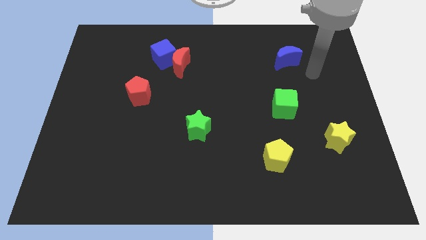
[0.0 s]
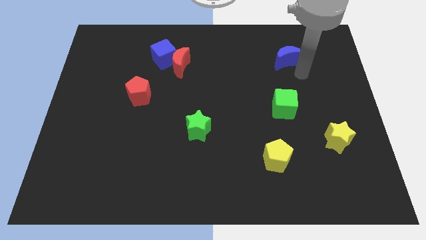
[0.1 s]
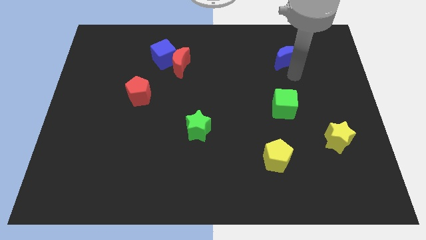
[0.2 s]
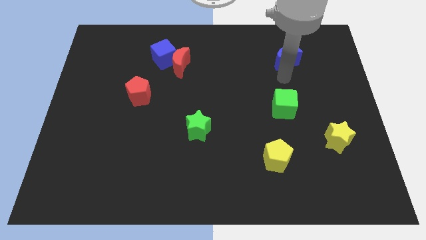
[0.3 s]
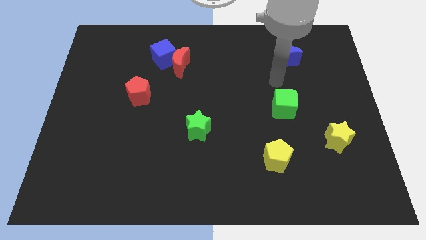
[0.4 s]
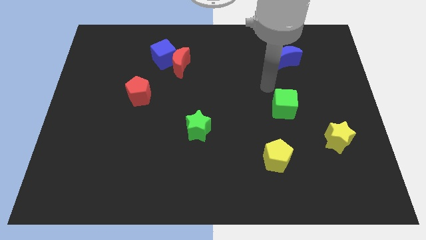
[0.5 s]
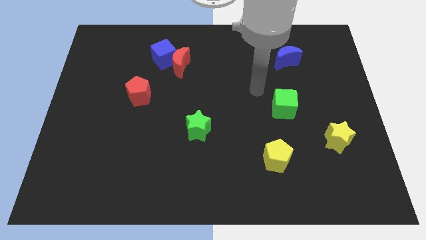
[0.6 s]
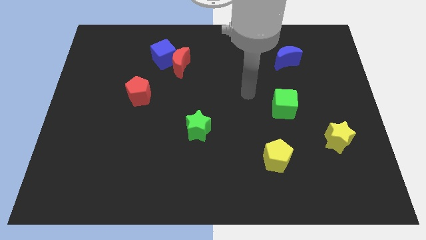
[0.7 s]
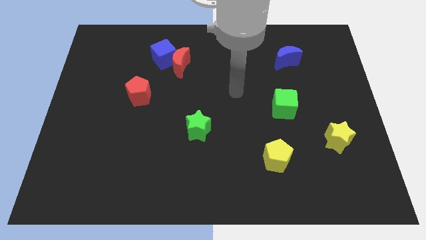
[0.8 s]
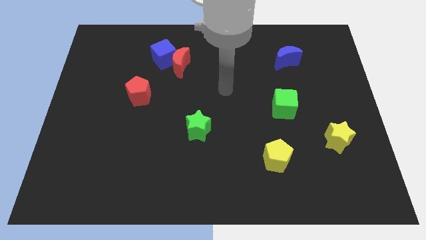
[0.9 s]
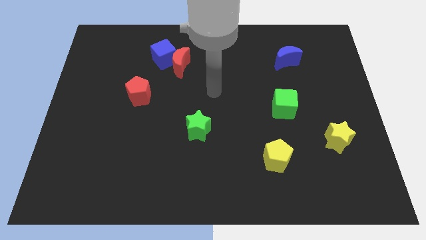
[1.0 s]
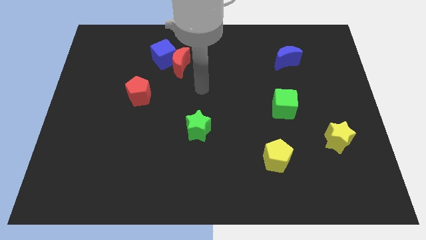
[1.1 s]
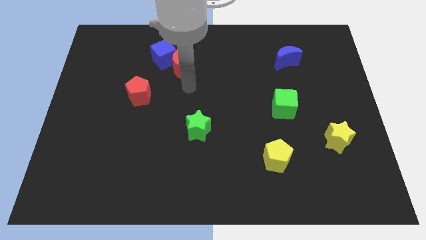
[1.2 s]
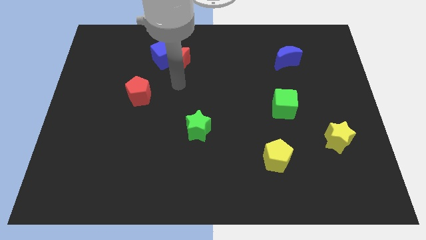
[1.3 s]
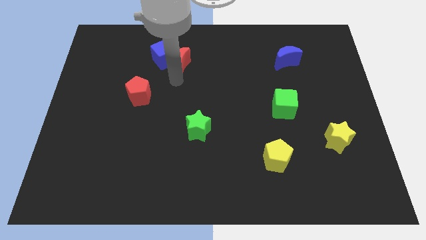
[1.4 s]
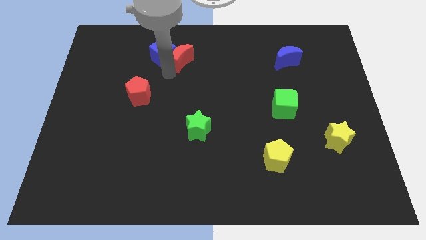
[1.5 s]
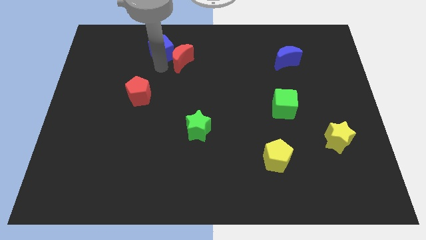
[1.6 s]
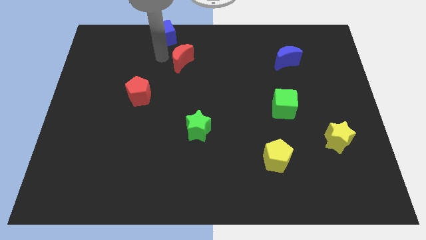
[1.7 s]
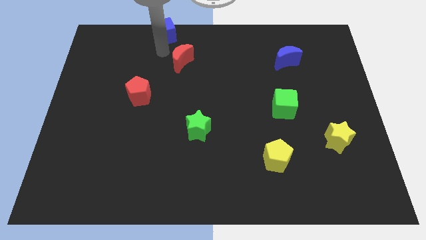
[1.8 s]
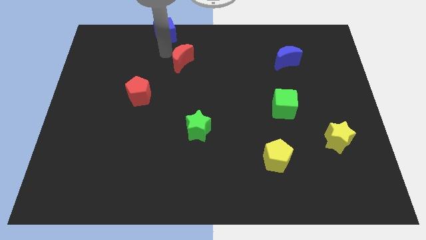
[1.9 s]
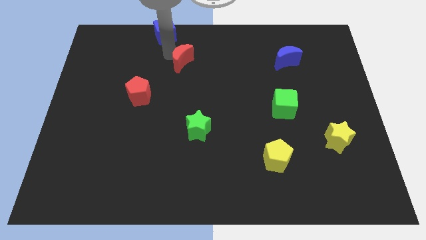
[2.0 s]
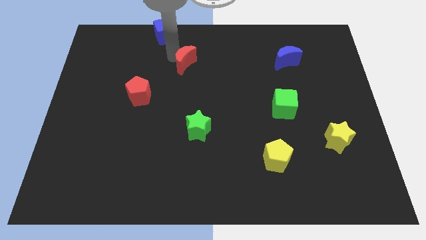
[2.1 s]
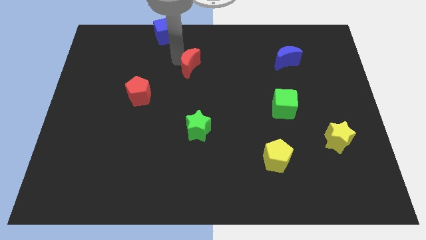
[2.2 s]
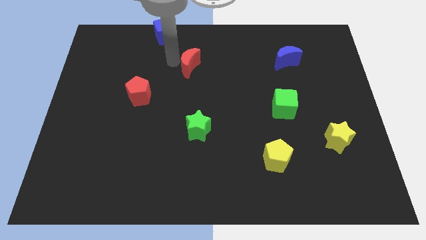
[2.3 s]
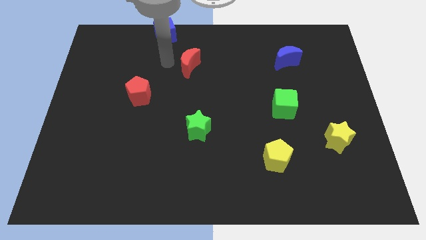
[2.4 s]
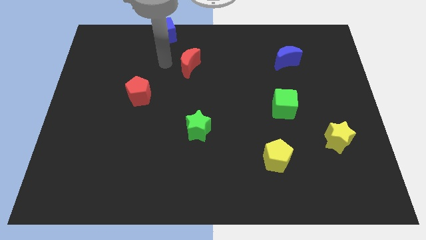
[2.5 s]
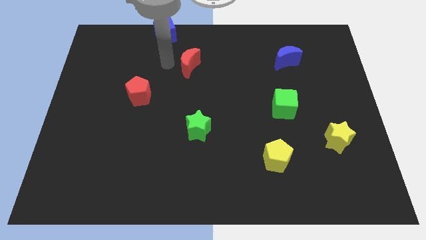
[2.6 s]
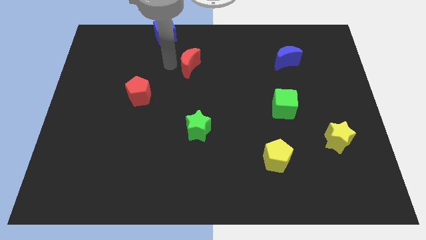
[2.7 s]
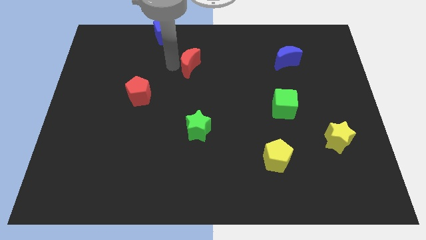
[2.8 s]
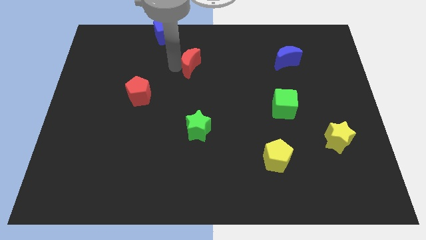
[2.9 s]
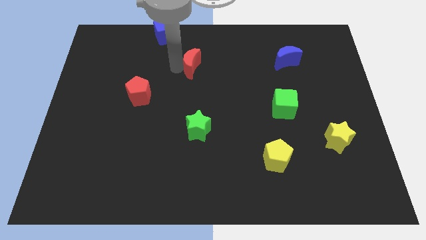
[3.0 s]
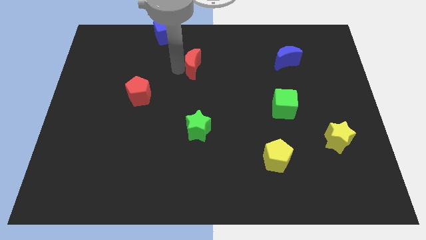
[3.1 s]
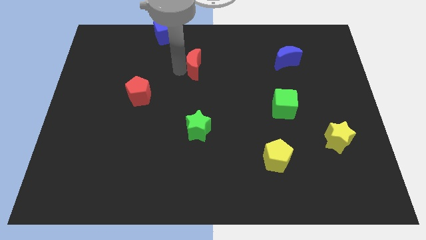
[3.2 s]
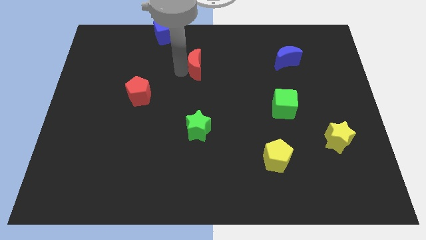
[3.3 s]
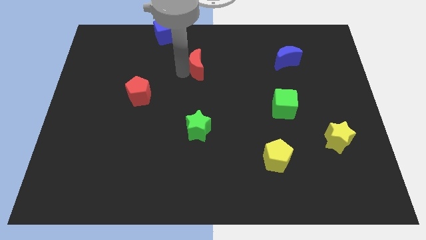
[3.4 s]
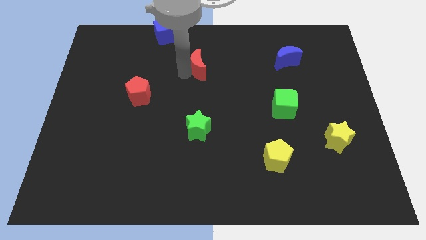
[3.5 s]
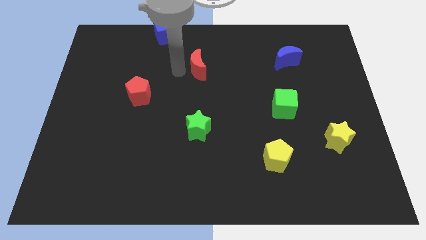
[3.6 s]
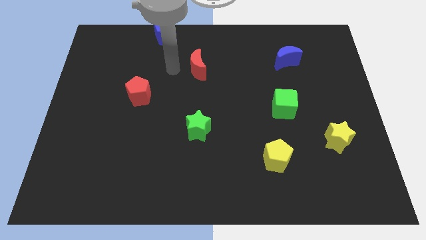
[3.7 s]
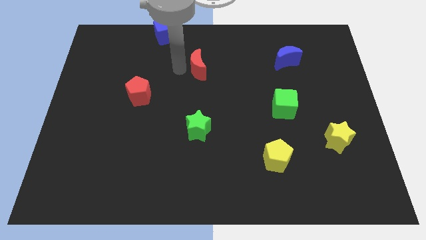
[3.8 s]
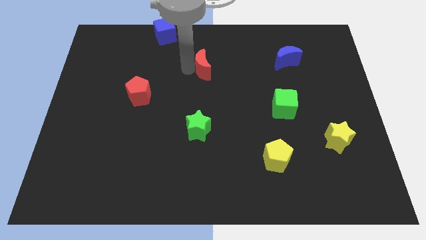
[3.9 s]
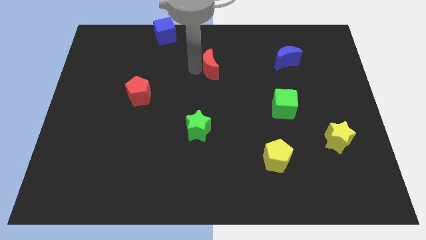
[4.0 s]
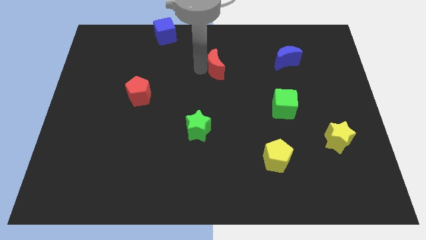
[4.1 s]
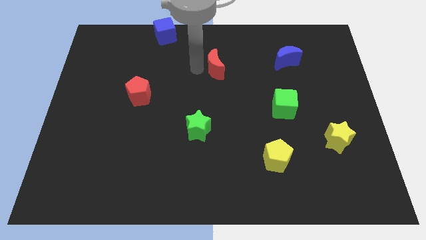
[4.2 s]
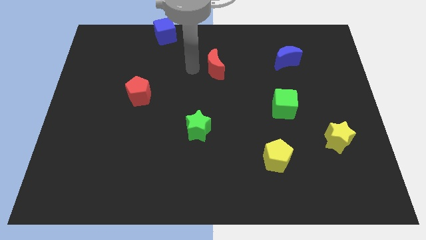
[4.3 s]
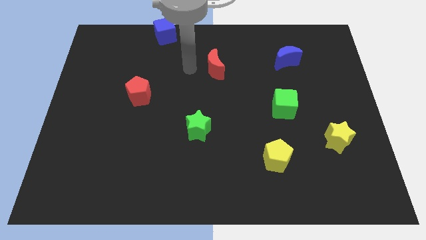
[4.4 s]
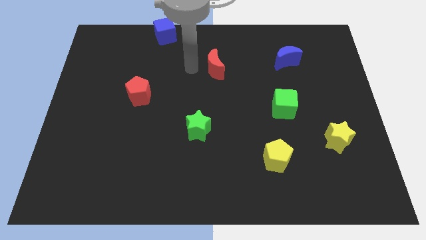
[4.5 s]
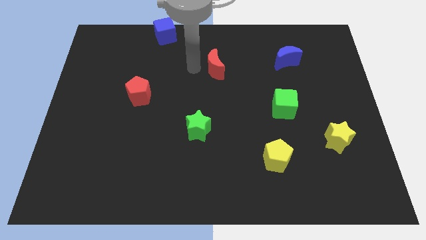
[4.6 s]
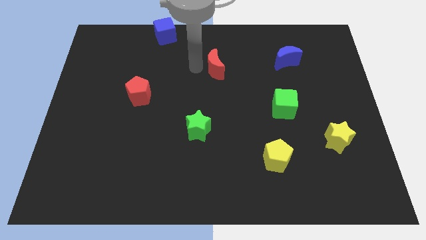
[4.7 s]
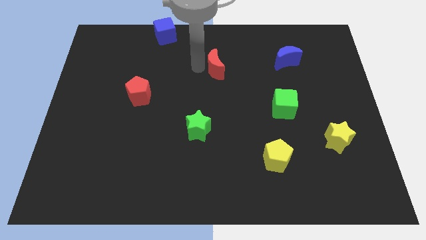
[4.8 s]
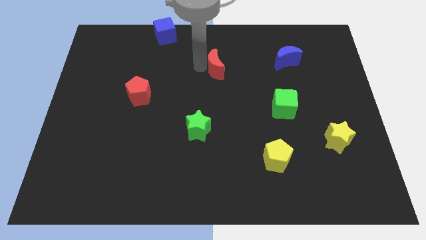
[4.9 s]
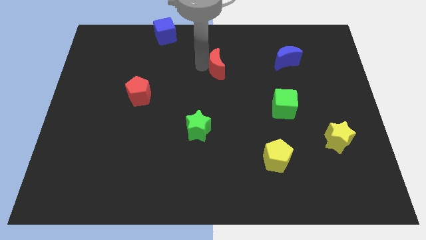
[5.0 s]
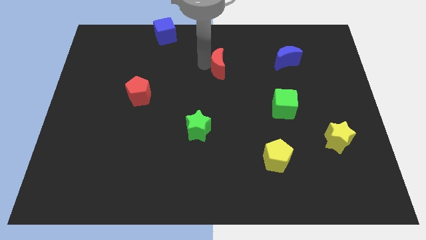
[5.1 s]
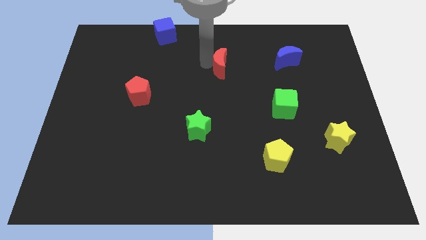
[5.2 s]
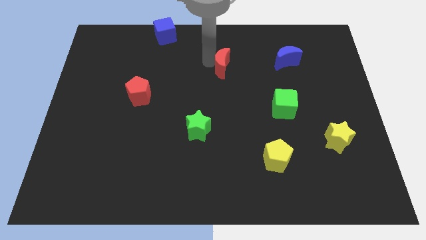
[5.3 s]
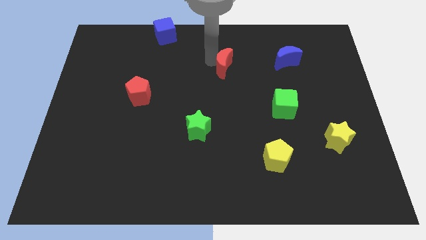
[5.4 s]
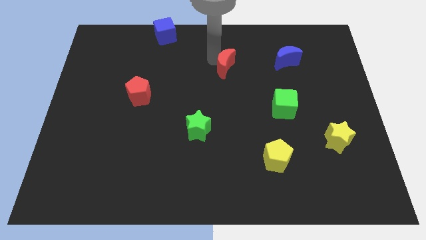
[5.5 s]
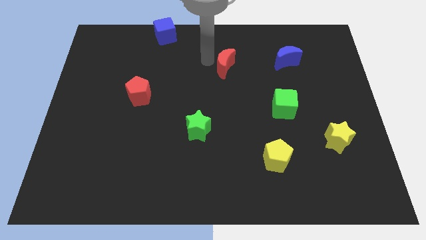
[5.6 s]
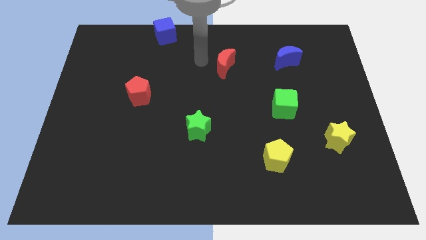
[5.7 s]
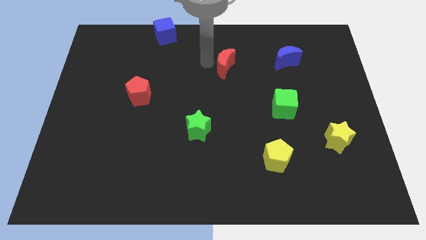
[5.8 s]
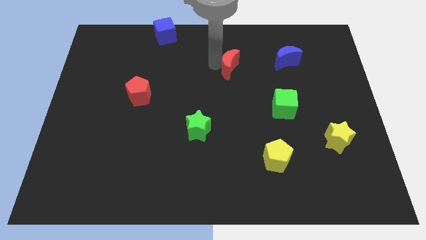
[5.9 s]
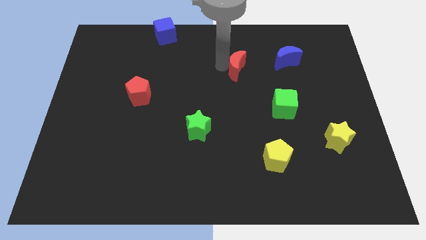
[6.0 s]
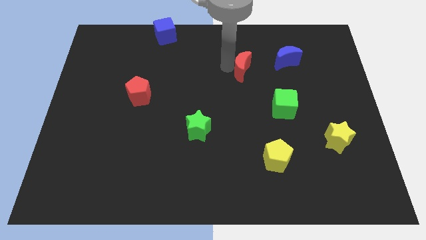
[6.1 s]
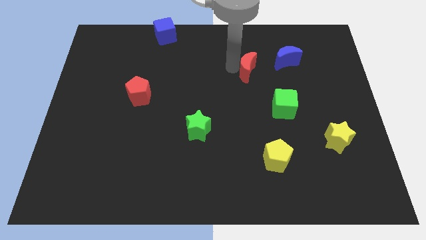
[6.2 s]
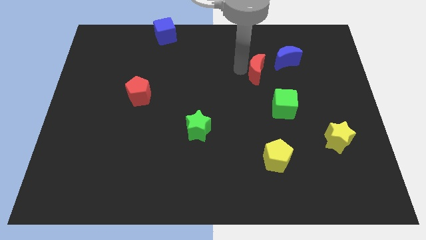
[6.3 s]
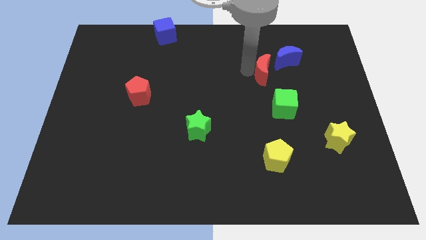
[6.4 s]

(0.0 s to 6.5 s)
move the red moon above the green cube
